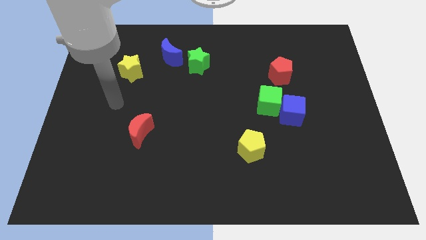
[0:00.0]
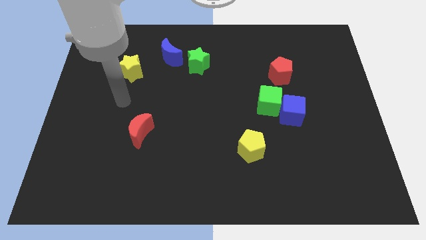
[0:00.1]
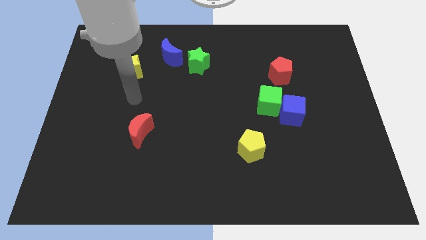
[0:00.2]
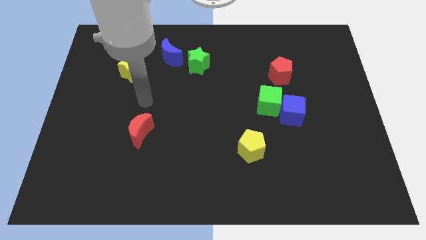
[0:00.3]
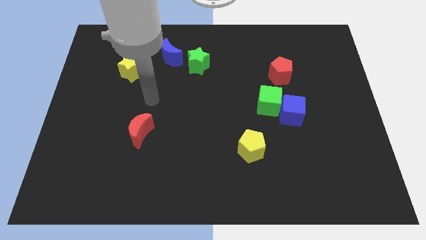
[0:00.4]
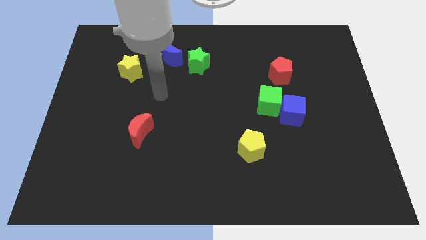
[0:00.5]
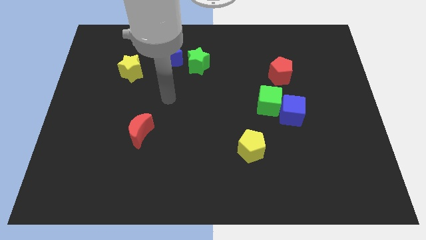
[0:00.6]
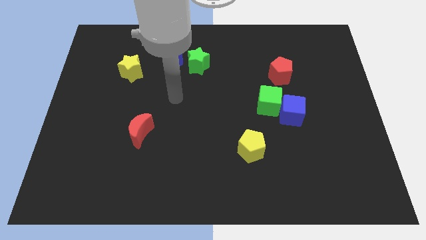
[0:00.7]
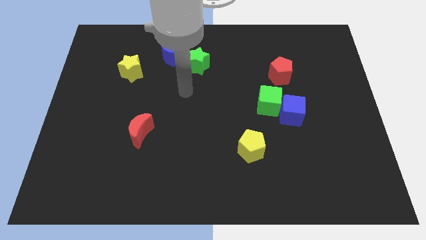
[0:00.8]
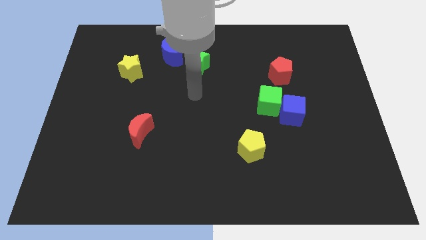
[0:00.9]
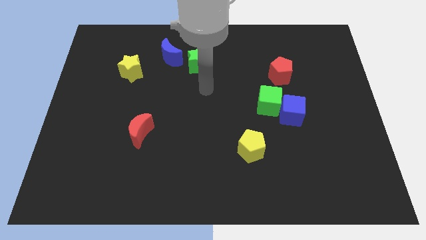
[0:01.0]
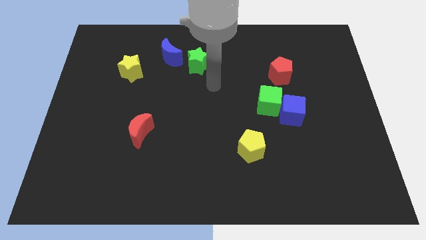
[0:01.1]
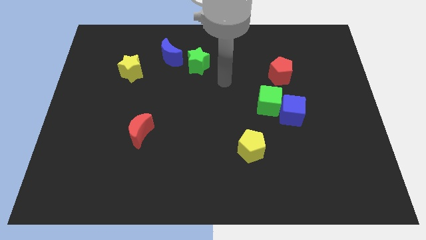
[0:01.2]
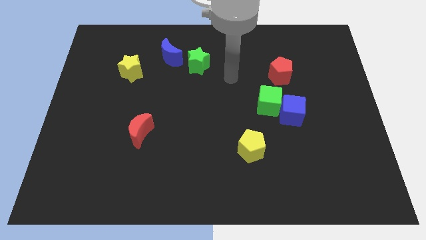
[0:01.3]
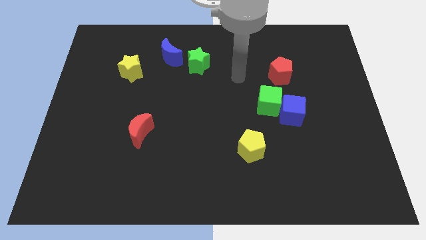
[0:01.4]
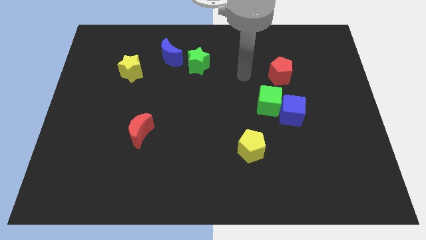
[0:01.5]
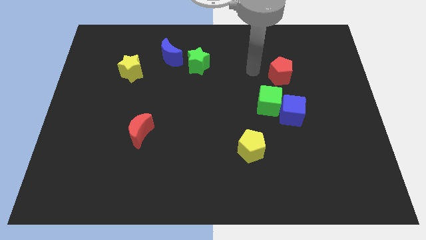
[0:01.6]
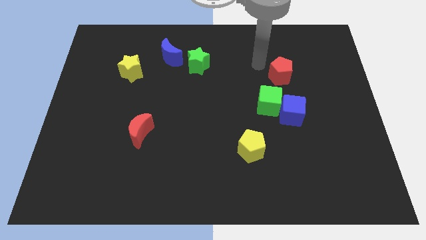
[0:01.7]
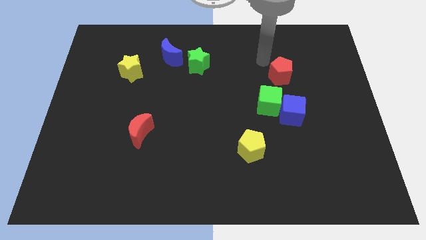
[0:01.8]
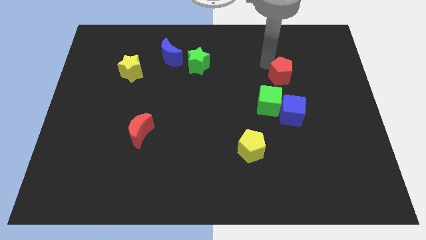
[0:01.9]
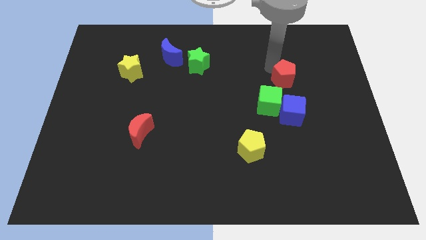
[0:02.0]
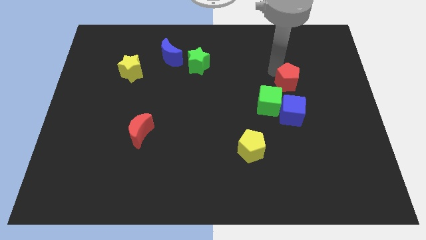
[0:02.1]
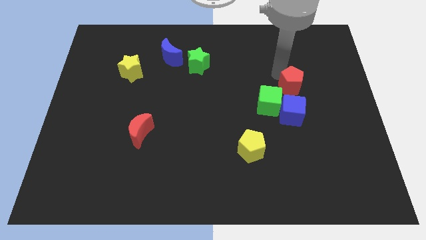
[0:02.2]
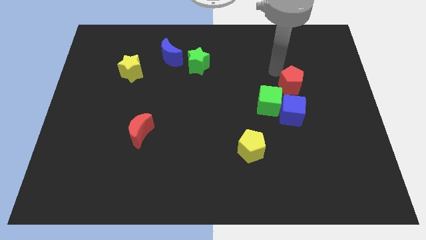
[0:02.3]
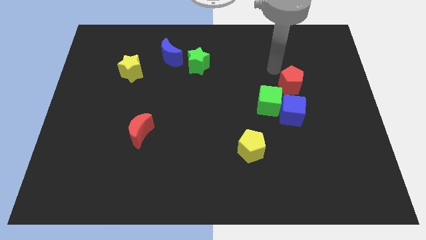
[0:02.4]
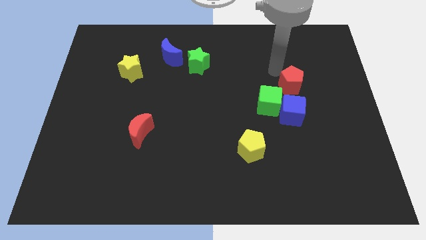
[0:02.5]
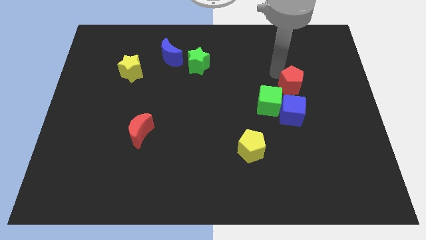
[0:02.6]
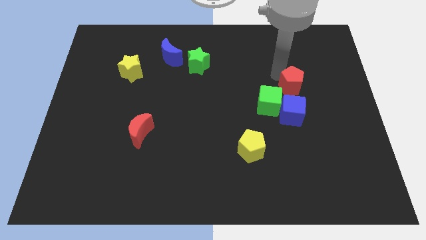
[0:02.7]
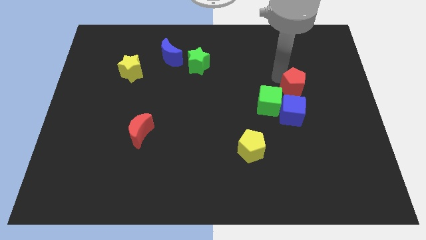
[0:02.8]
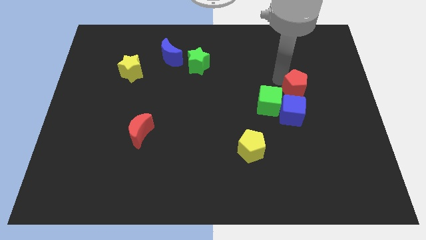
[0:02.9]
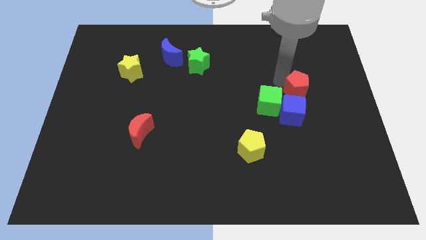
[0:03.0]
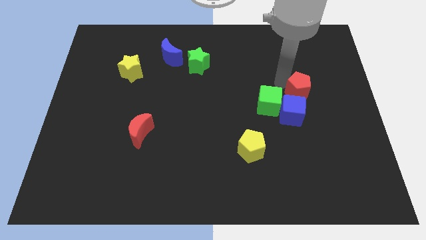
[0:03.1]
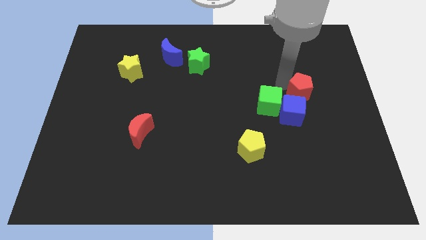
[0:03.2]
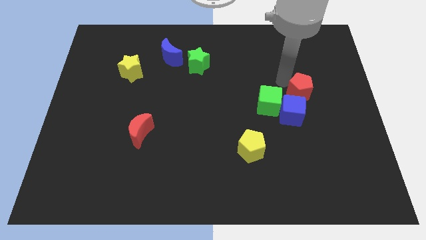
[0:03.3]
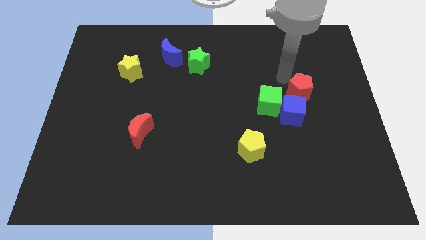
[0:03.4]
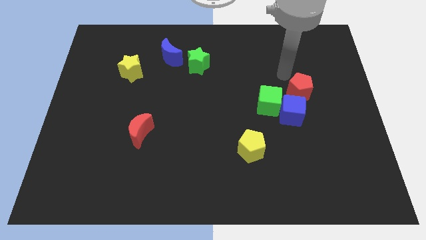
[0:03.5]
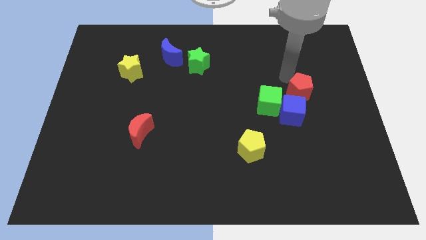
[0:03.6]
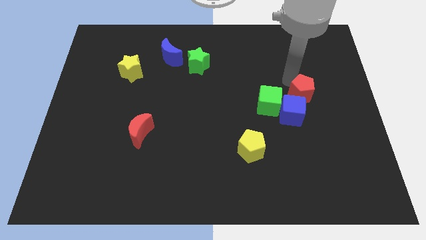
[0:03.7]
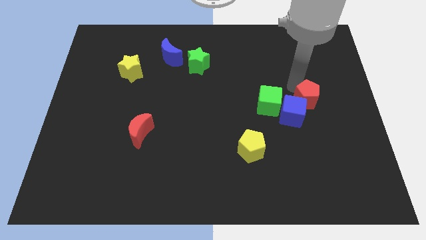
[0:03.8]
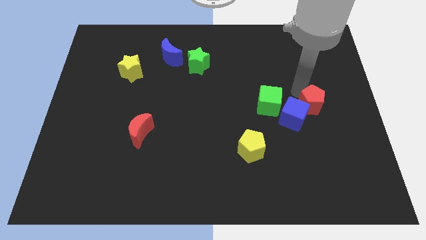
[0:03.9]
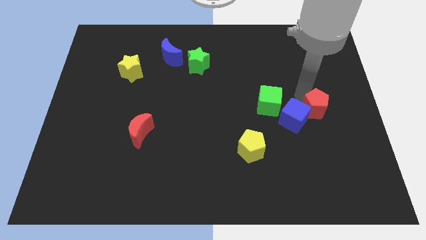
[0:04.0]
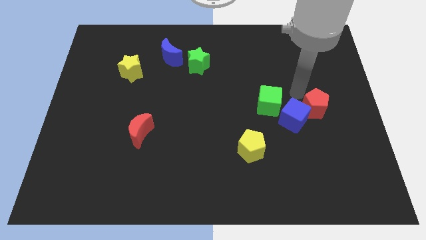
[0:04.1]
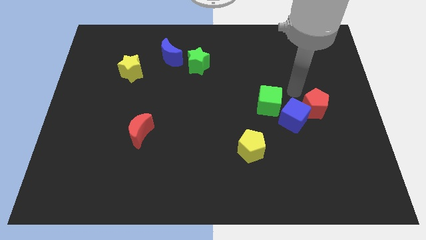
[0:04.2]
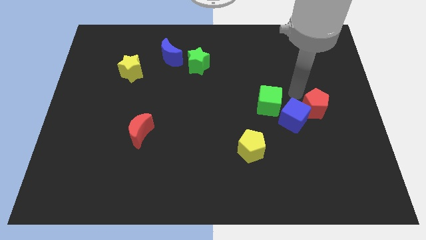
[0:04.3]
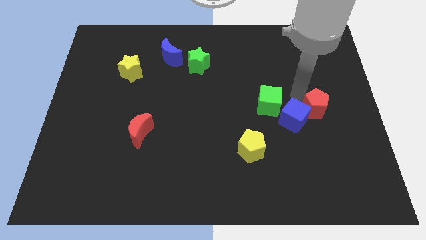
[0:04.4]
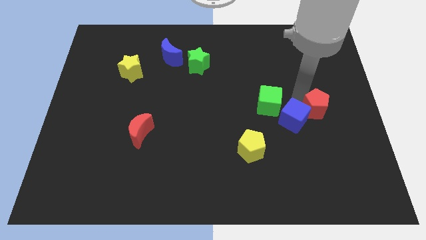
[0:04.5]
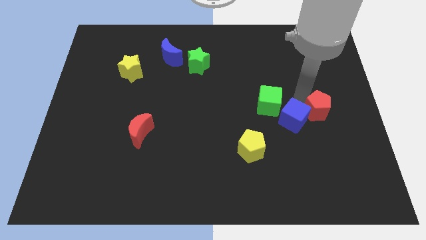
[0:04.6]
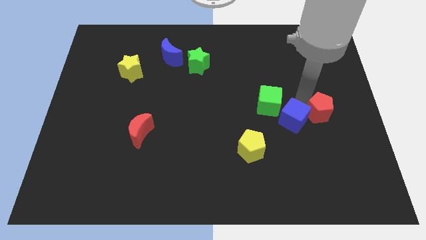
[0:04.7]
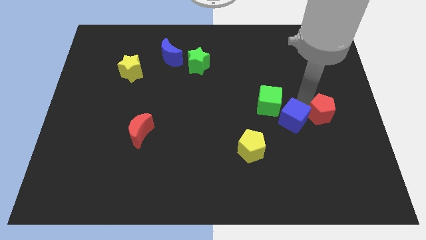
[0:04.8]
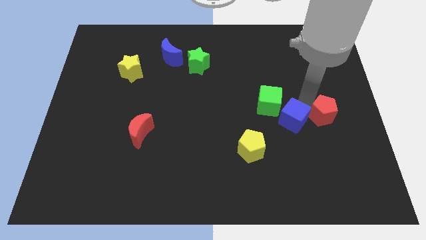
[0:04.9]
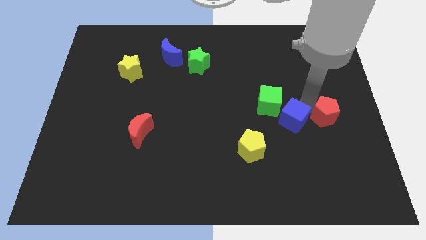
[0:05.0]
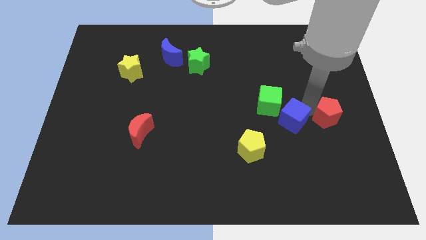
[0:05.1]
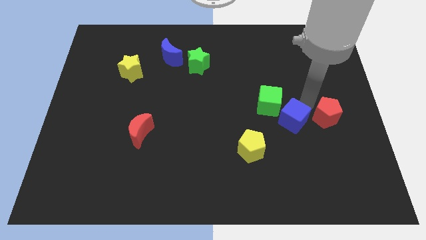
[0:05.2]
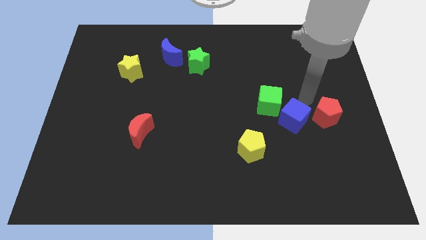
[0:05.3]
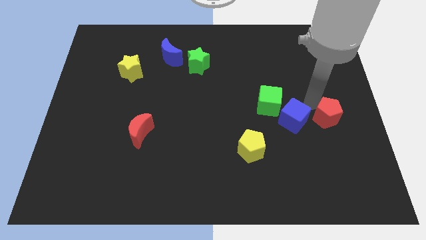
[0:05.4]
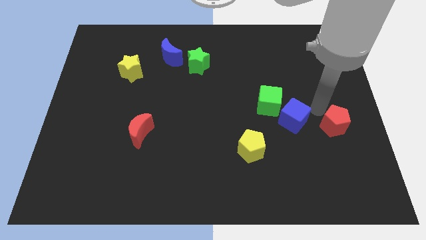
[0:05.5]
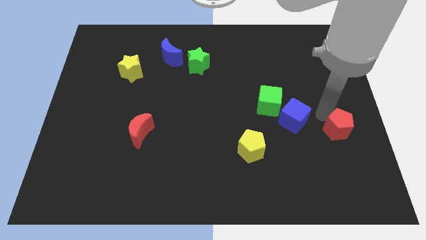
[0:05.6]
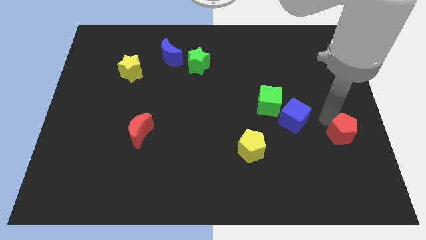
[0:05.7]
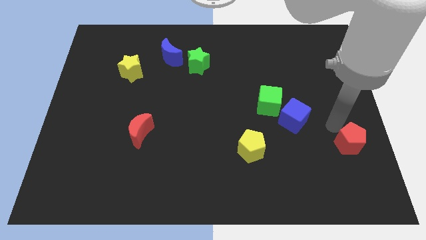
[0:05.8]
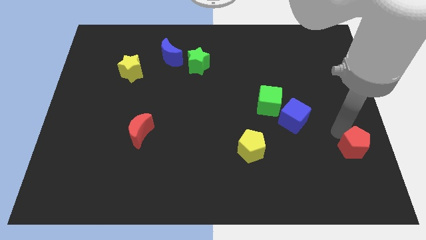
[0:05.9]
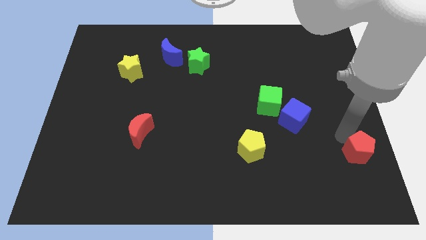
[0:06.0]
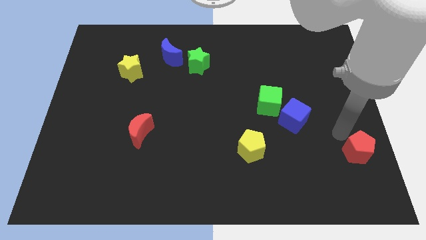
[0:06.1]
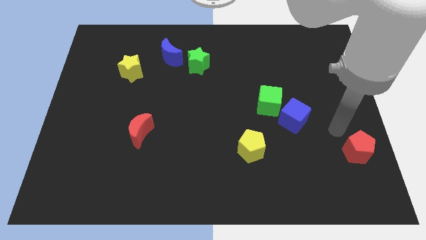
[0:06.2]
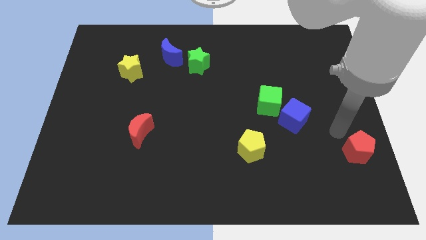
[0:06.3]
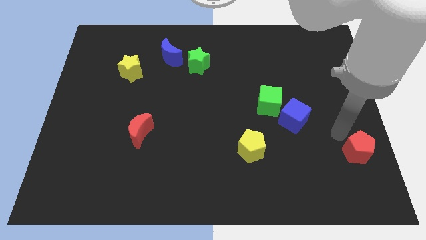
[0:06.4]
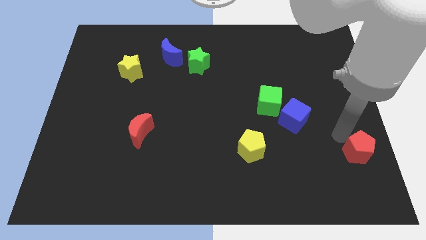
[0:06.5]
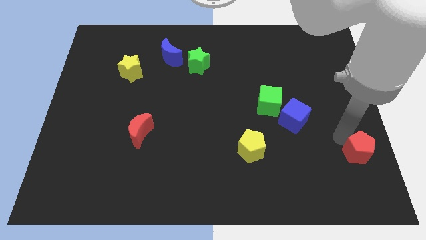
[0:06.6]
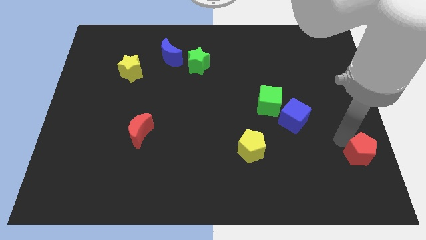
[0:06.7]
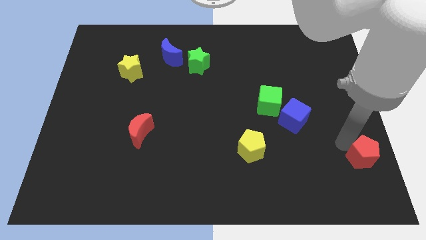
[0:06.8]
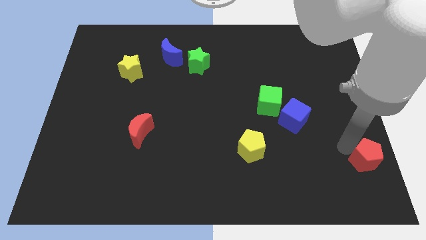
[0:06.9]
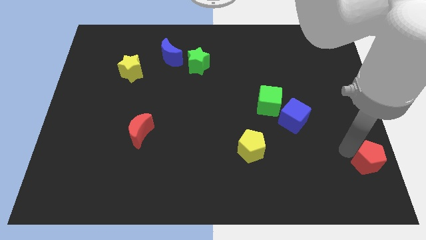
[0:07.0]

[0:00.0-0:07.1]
put the red pentagon to the bottom right of the board
